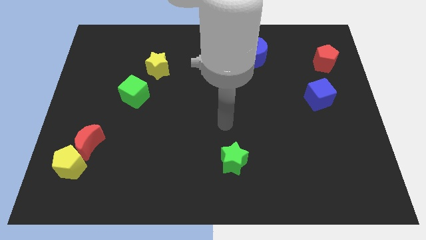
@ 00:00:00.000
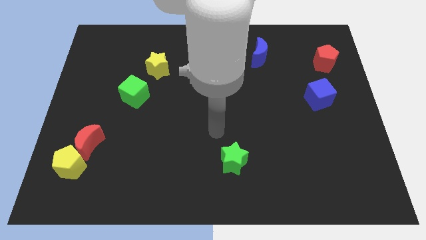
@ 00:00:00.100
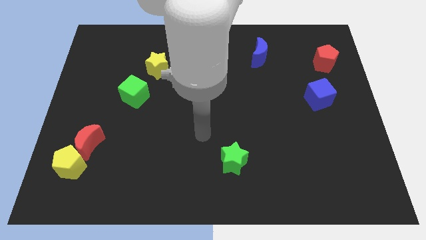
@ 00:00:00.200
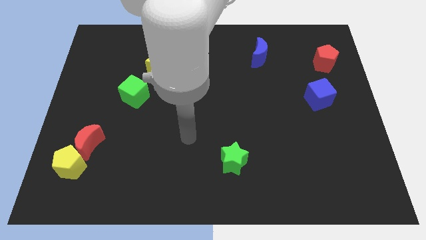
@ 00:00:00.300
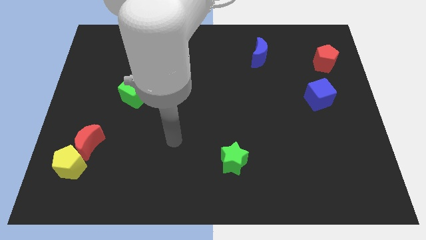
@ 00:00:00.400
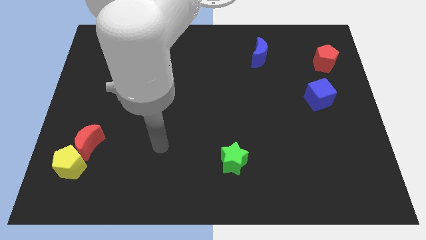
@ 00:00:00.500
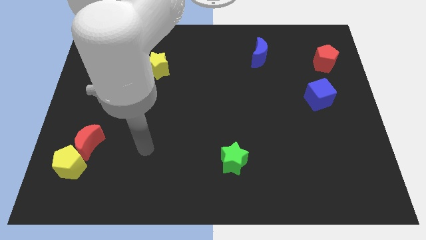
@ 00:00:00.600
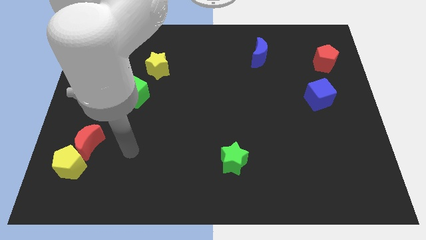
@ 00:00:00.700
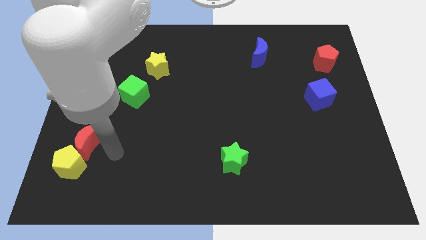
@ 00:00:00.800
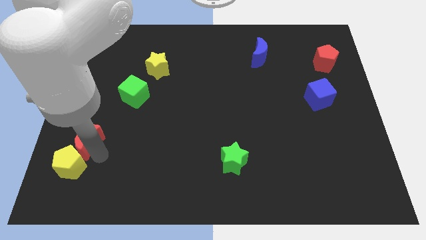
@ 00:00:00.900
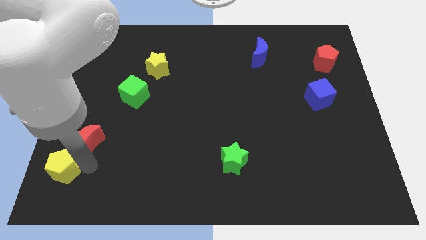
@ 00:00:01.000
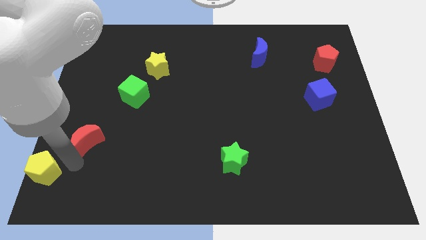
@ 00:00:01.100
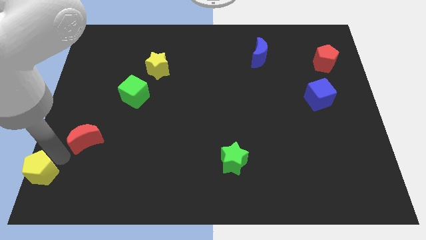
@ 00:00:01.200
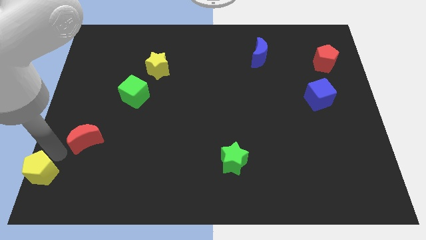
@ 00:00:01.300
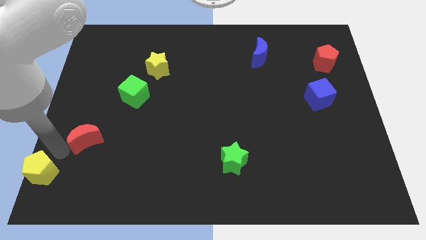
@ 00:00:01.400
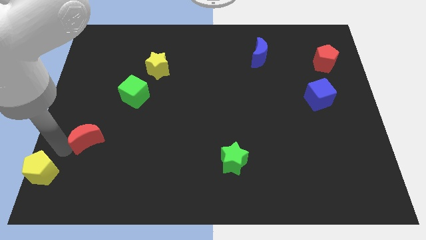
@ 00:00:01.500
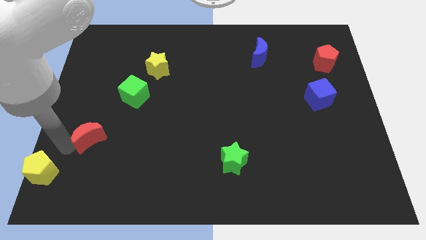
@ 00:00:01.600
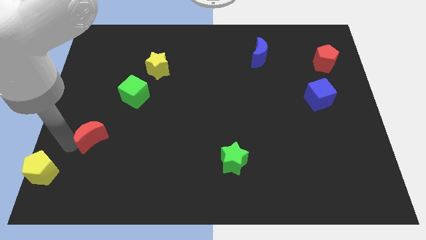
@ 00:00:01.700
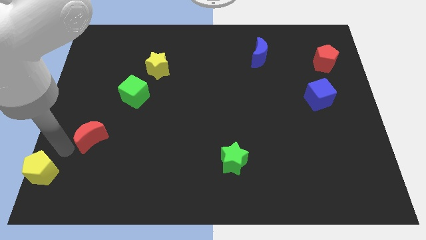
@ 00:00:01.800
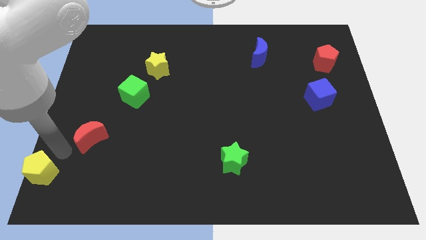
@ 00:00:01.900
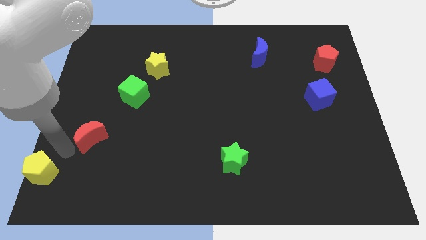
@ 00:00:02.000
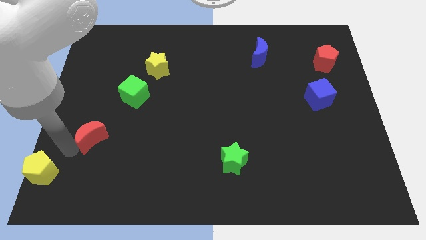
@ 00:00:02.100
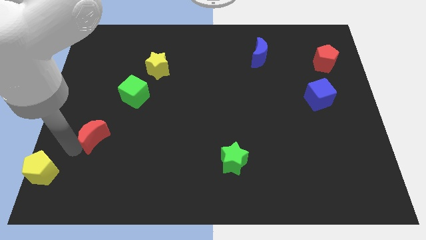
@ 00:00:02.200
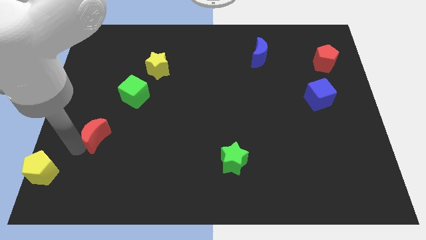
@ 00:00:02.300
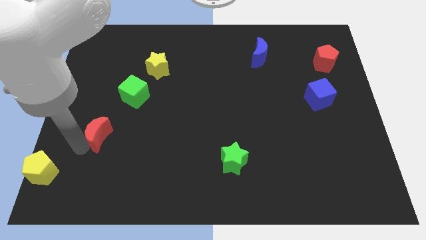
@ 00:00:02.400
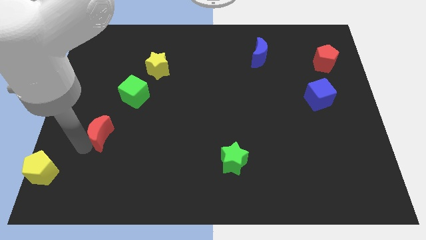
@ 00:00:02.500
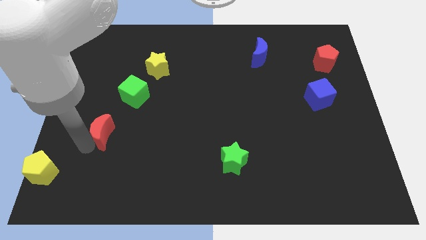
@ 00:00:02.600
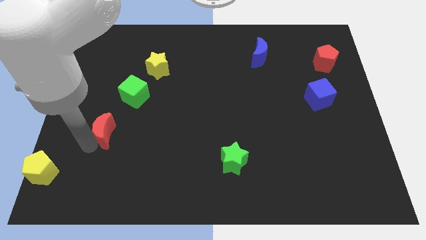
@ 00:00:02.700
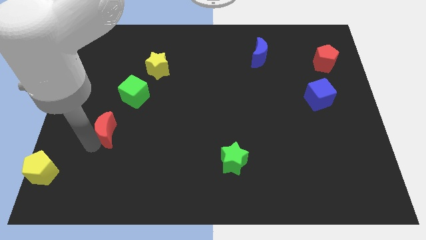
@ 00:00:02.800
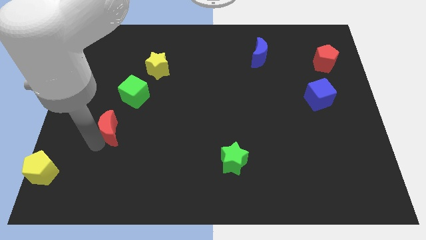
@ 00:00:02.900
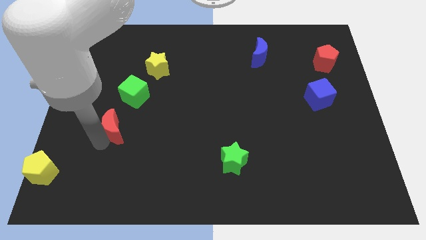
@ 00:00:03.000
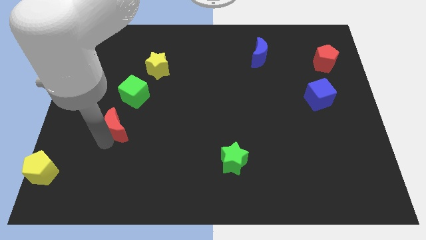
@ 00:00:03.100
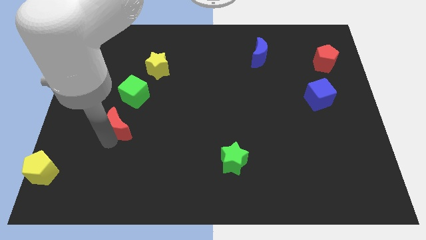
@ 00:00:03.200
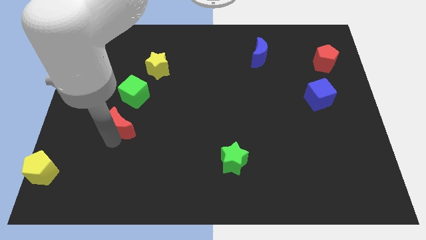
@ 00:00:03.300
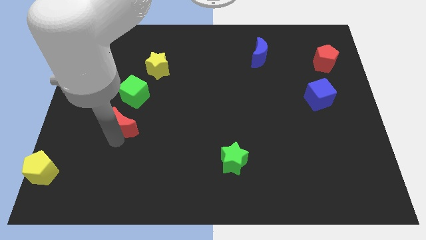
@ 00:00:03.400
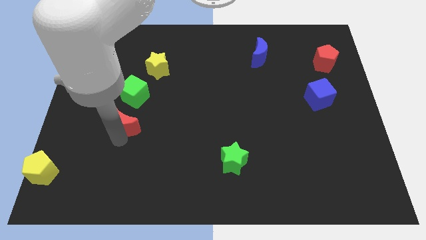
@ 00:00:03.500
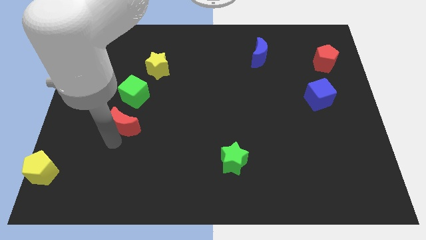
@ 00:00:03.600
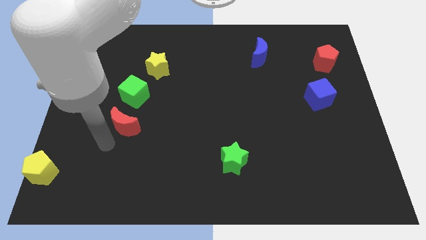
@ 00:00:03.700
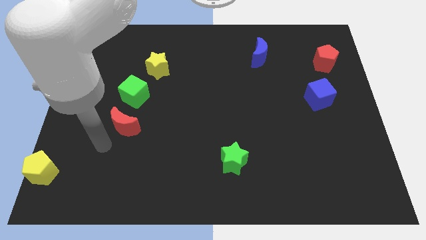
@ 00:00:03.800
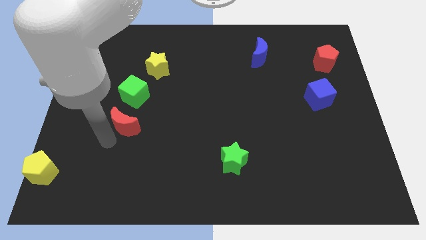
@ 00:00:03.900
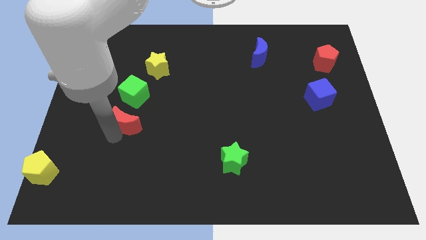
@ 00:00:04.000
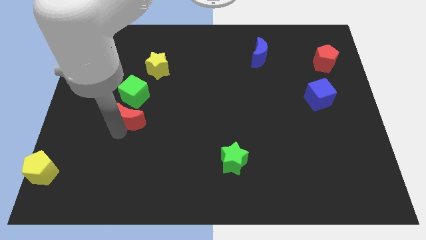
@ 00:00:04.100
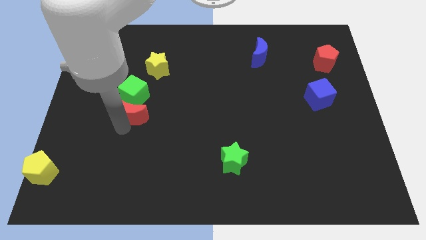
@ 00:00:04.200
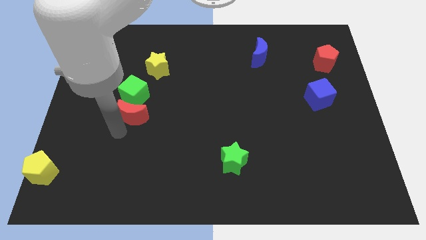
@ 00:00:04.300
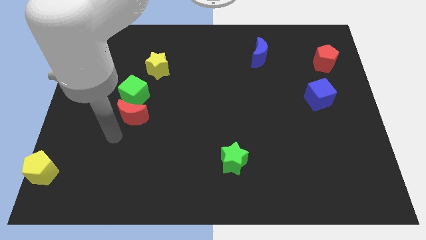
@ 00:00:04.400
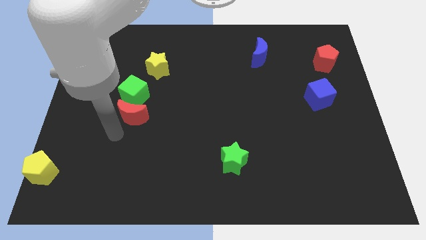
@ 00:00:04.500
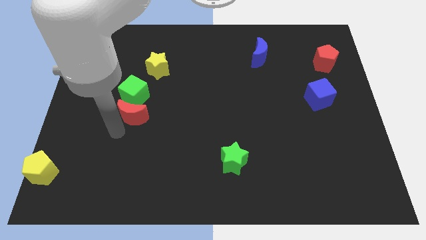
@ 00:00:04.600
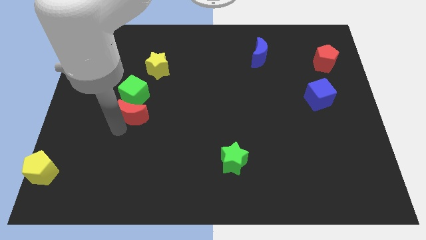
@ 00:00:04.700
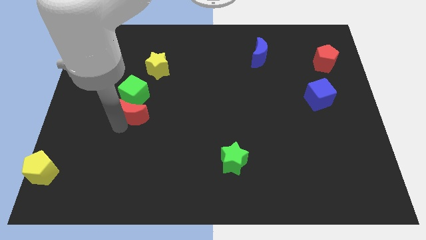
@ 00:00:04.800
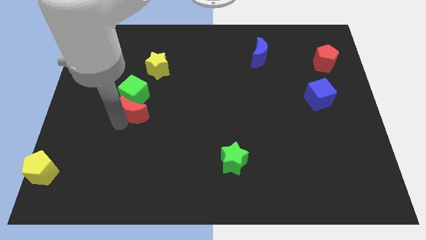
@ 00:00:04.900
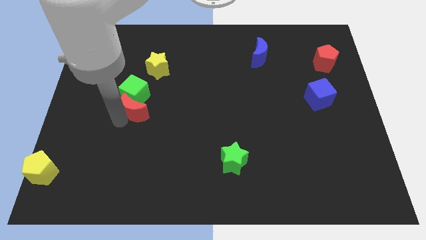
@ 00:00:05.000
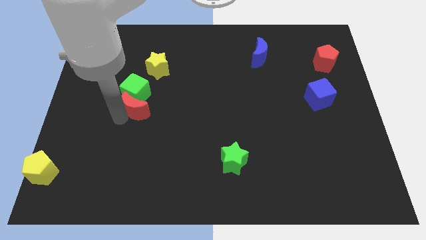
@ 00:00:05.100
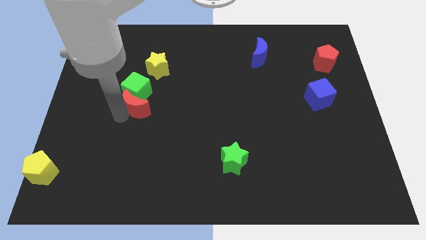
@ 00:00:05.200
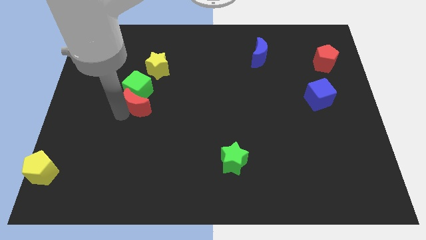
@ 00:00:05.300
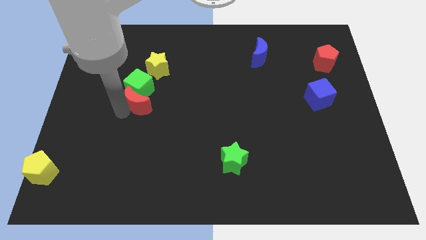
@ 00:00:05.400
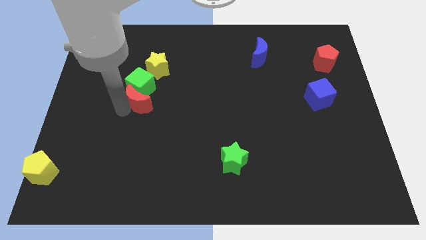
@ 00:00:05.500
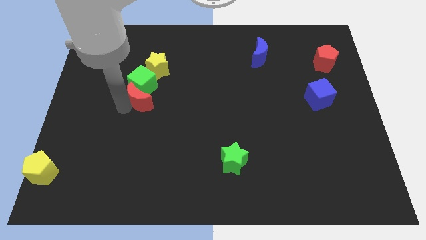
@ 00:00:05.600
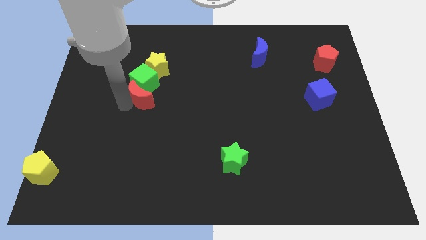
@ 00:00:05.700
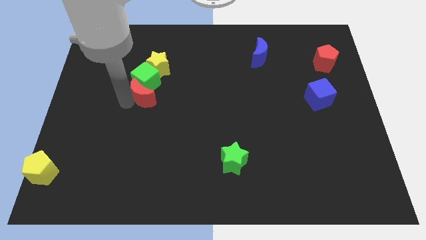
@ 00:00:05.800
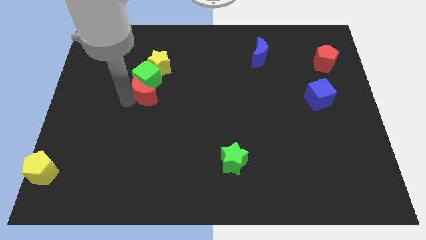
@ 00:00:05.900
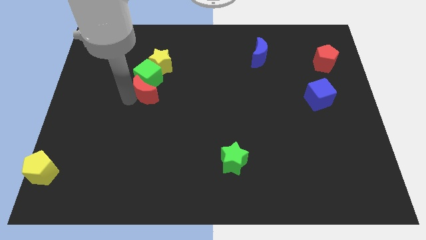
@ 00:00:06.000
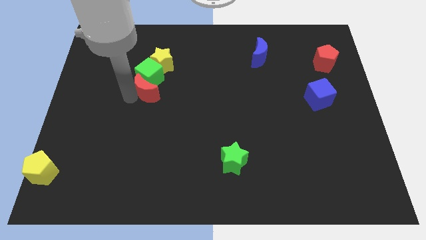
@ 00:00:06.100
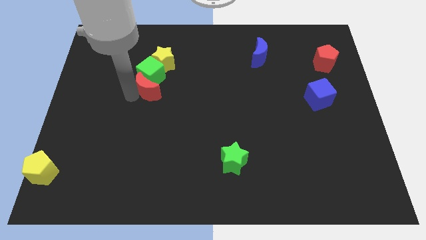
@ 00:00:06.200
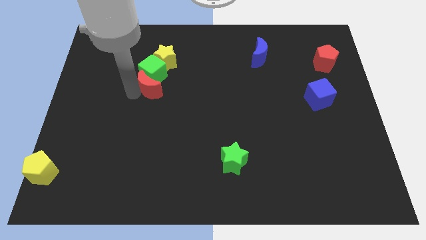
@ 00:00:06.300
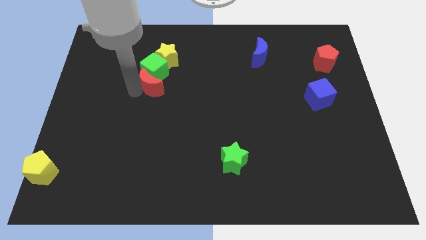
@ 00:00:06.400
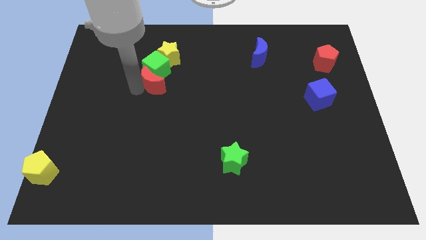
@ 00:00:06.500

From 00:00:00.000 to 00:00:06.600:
move the red moon up and to the right

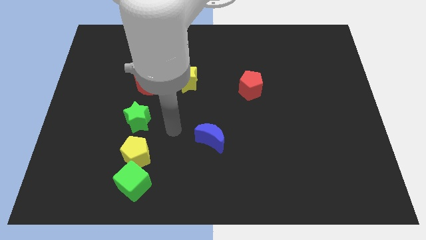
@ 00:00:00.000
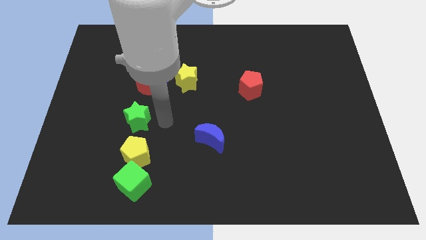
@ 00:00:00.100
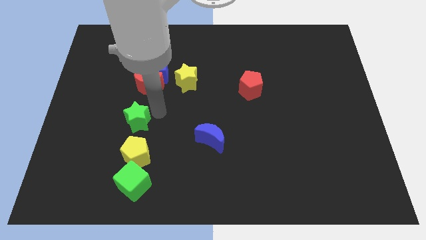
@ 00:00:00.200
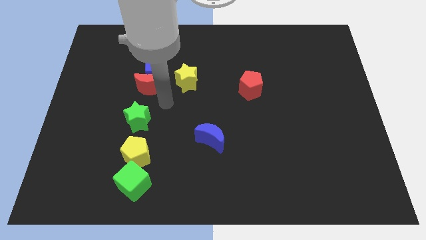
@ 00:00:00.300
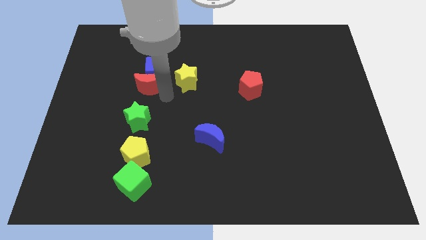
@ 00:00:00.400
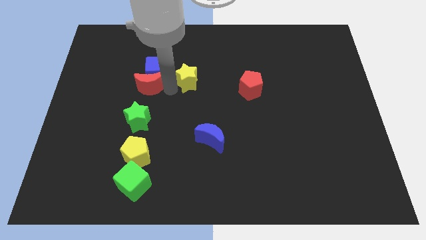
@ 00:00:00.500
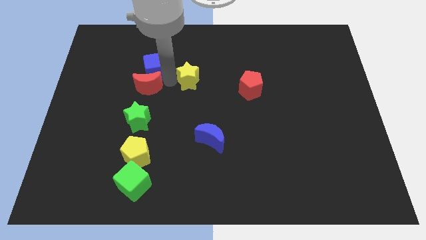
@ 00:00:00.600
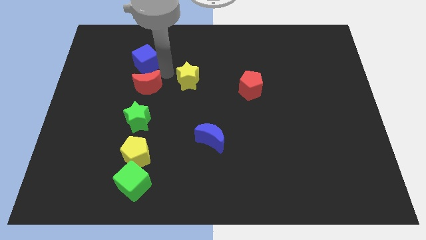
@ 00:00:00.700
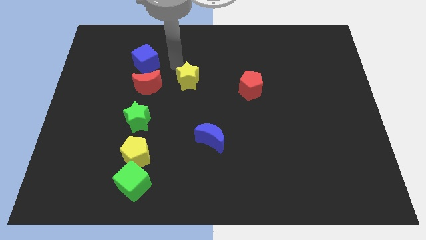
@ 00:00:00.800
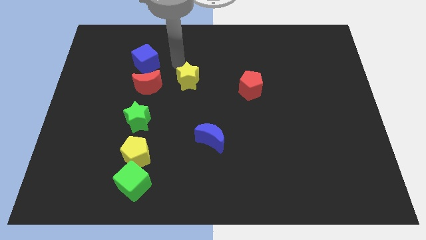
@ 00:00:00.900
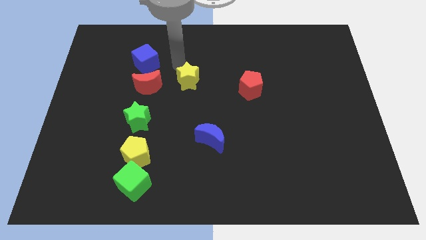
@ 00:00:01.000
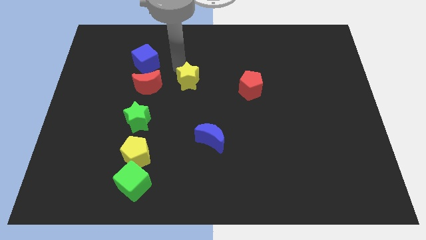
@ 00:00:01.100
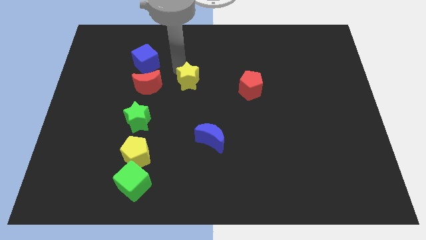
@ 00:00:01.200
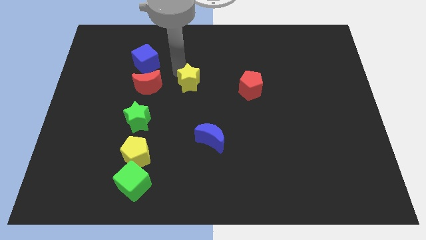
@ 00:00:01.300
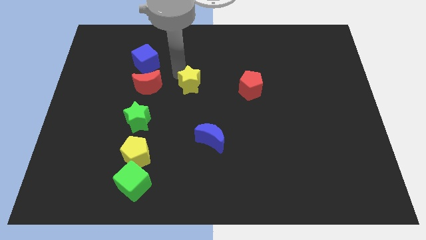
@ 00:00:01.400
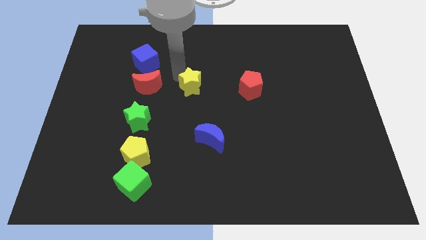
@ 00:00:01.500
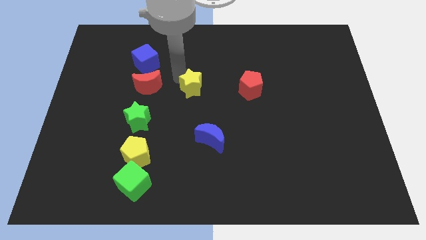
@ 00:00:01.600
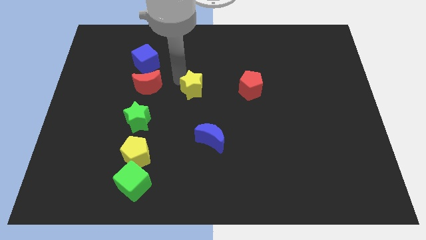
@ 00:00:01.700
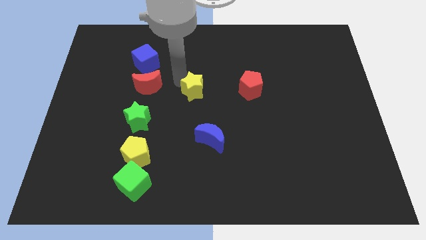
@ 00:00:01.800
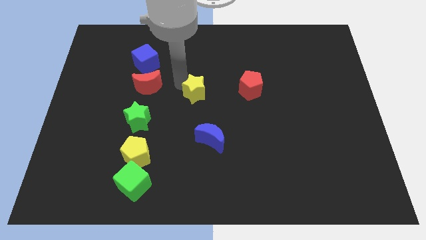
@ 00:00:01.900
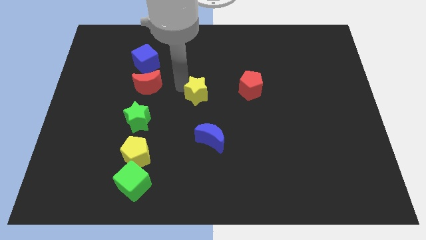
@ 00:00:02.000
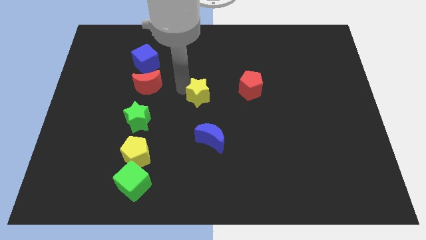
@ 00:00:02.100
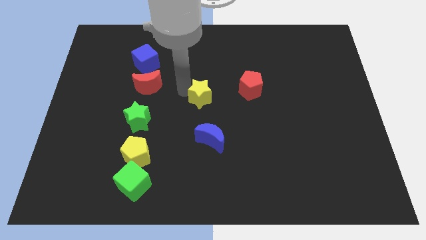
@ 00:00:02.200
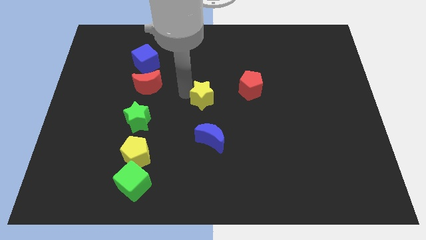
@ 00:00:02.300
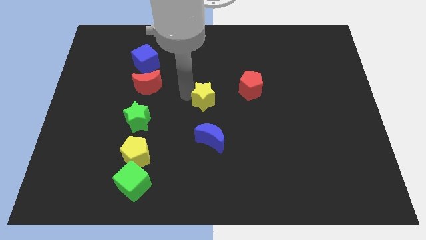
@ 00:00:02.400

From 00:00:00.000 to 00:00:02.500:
move the yellow star diagonally down and right a little bit
